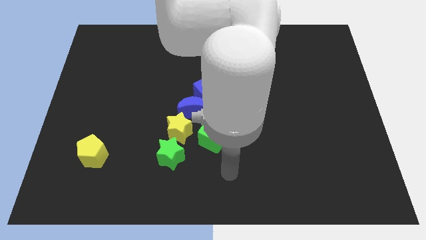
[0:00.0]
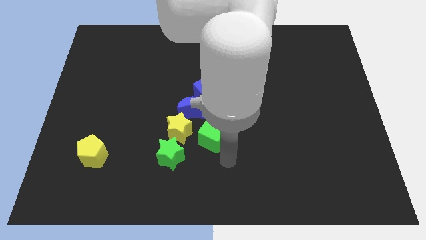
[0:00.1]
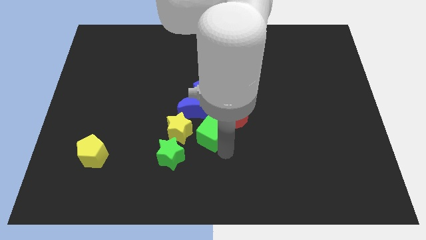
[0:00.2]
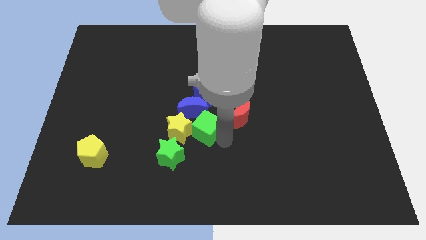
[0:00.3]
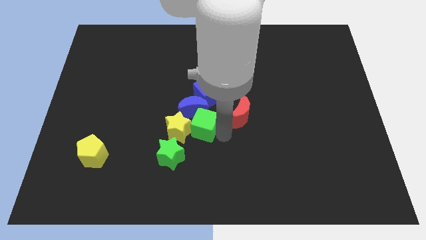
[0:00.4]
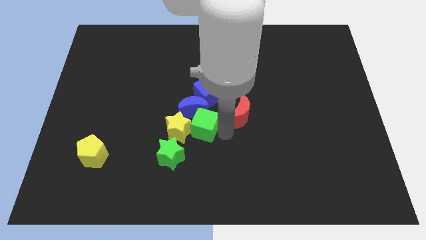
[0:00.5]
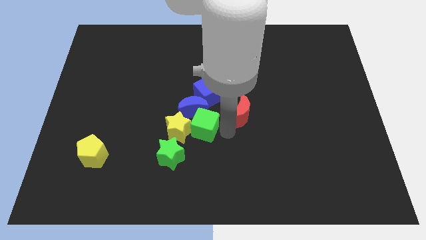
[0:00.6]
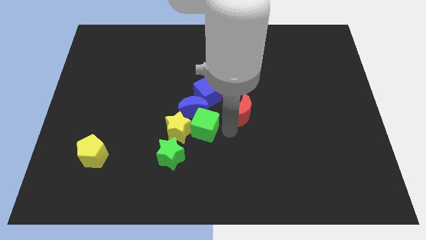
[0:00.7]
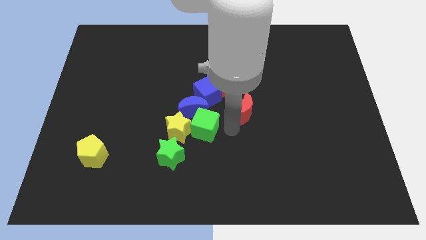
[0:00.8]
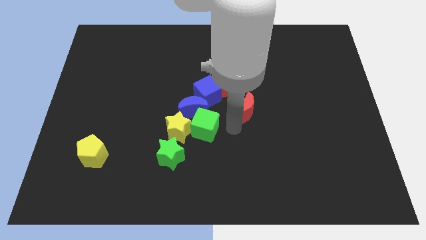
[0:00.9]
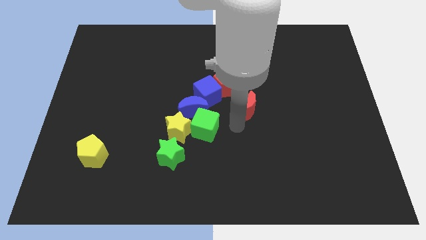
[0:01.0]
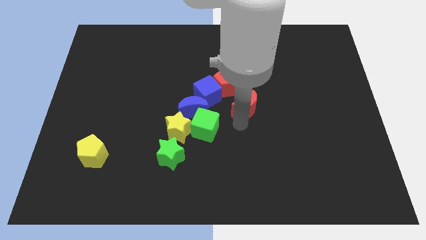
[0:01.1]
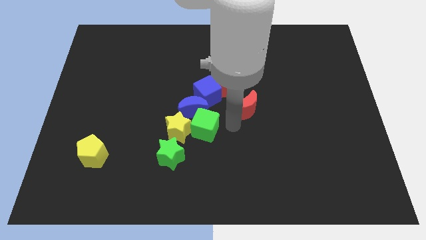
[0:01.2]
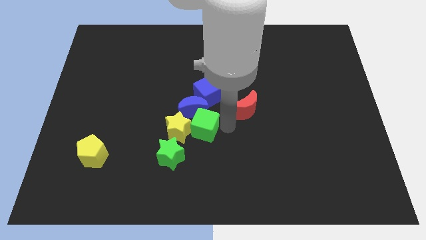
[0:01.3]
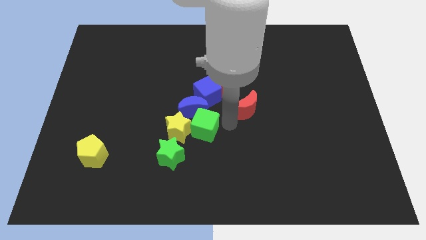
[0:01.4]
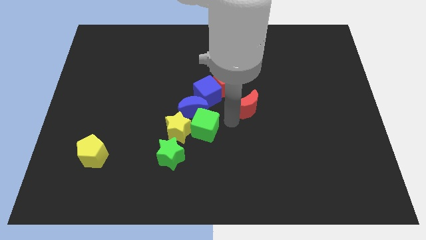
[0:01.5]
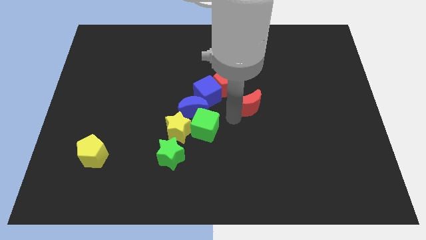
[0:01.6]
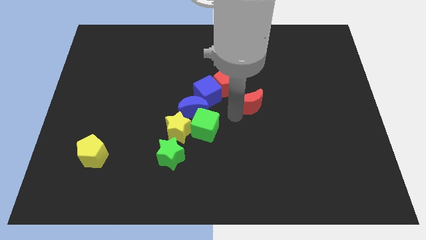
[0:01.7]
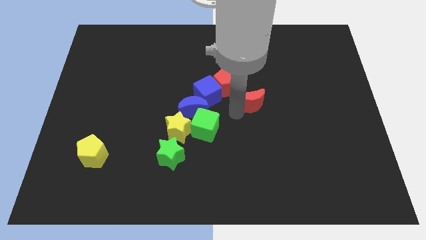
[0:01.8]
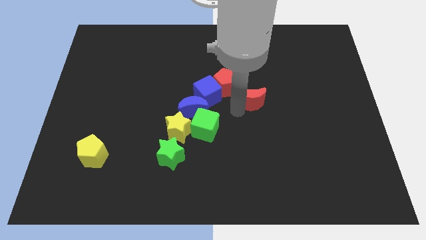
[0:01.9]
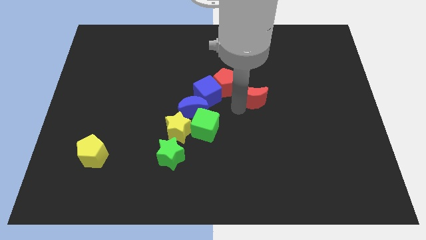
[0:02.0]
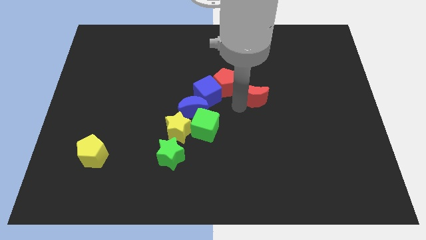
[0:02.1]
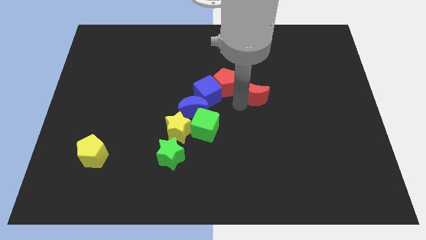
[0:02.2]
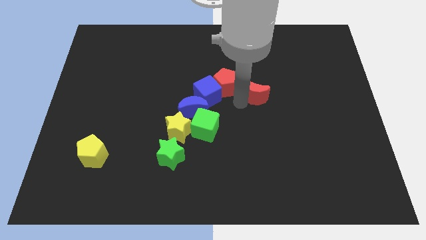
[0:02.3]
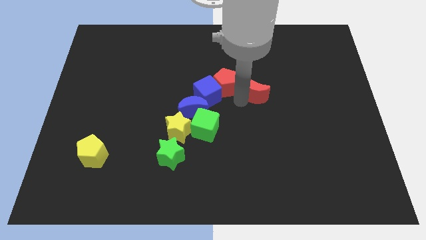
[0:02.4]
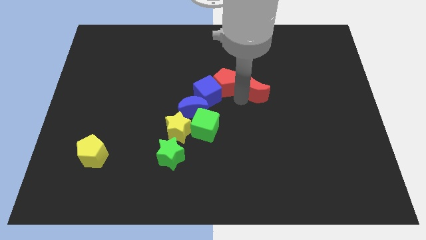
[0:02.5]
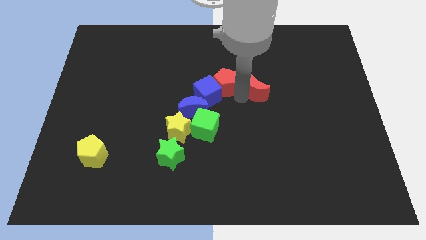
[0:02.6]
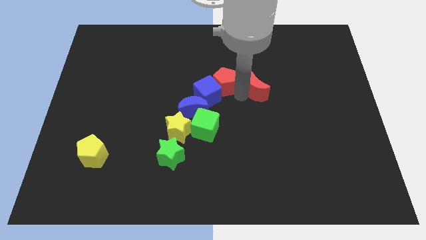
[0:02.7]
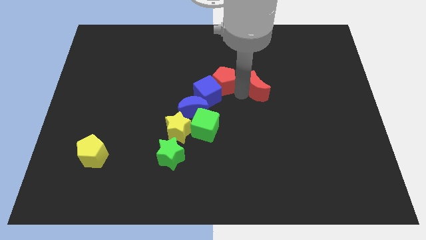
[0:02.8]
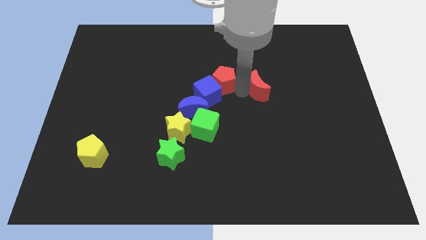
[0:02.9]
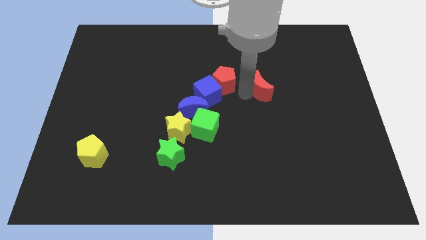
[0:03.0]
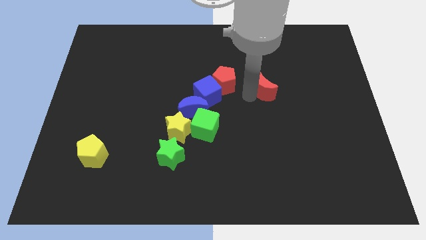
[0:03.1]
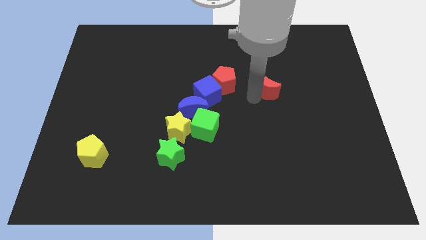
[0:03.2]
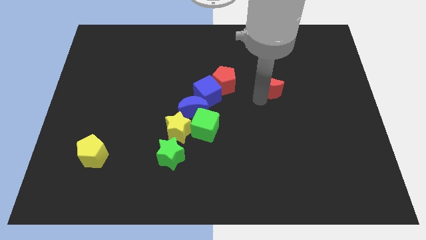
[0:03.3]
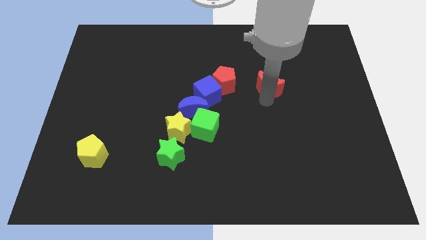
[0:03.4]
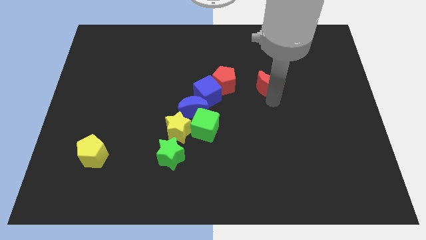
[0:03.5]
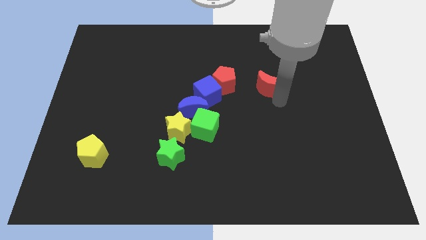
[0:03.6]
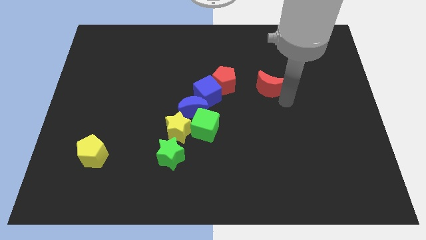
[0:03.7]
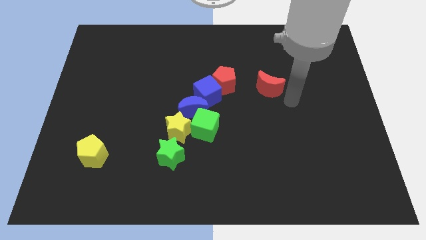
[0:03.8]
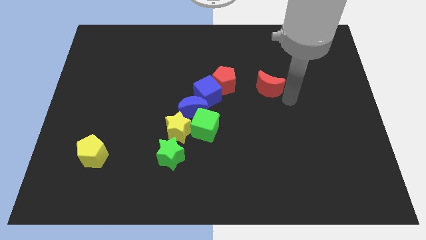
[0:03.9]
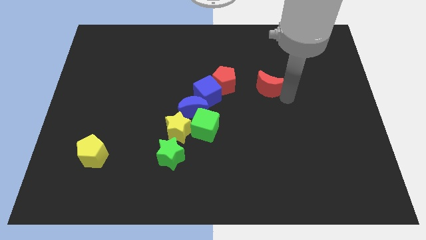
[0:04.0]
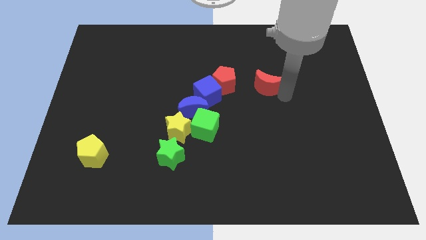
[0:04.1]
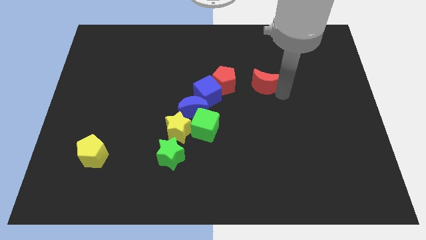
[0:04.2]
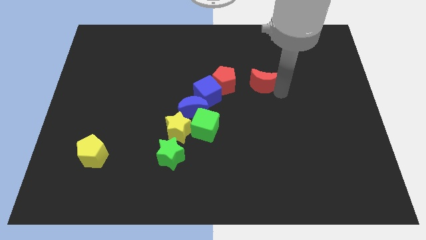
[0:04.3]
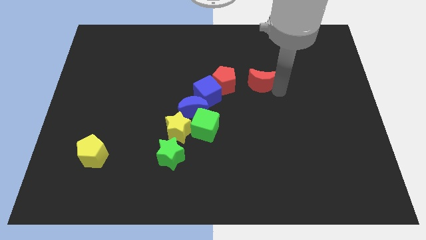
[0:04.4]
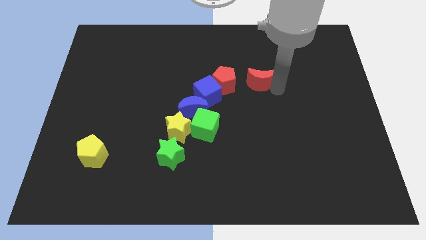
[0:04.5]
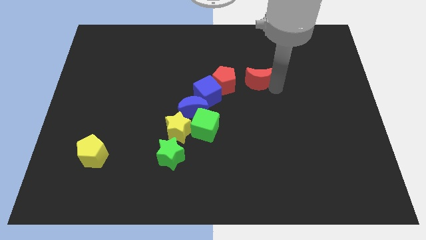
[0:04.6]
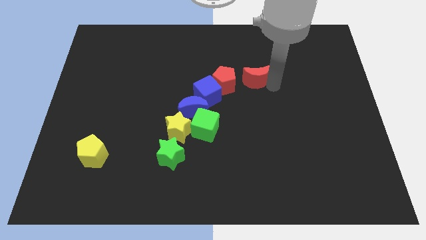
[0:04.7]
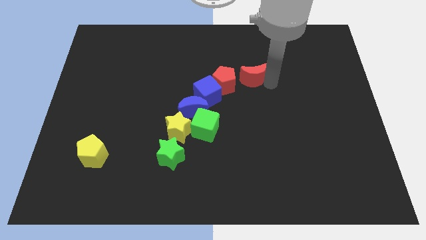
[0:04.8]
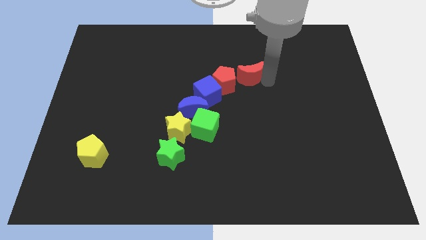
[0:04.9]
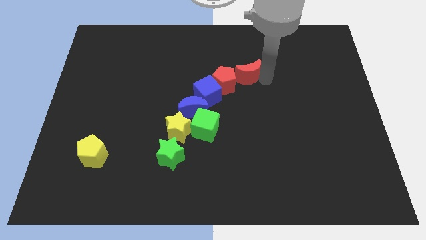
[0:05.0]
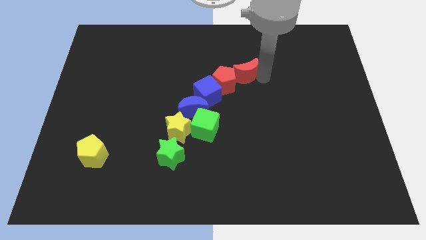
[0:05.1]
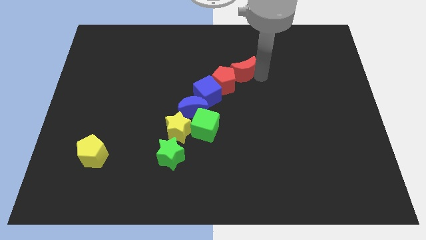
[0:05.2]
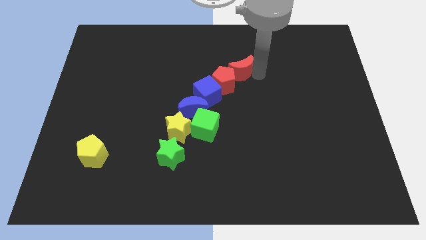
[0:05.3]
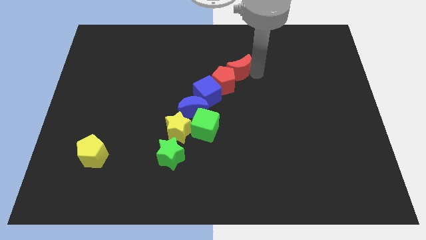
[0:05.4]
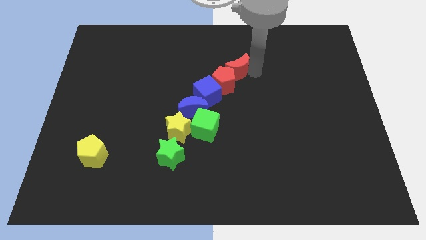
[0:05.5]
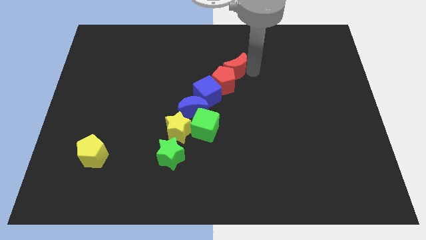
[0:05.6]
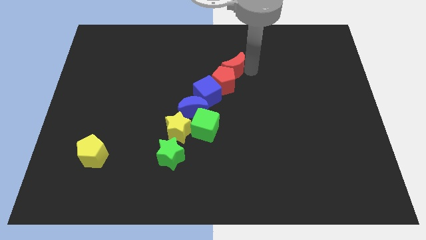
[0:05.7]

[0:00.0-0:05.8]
move the red moon diagonally up and to the left somewhat

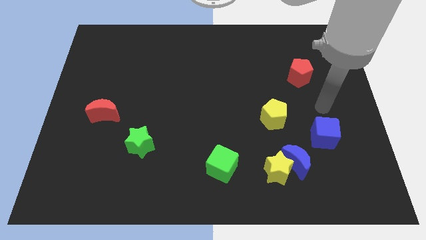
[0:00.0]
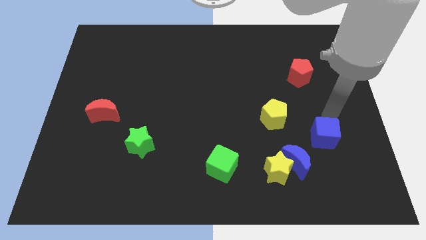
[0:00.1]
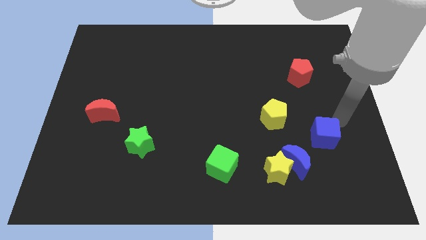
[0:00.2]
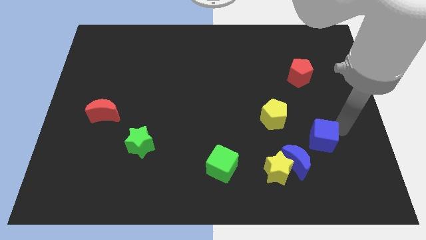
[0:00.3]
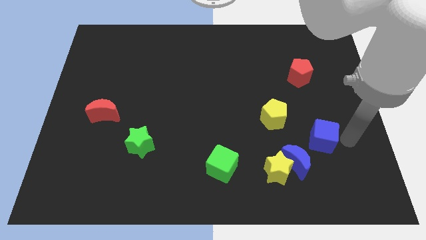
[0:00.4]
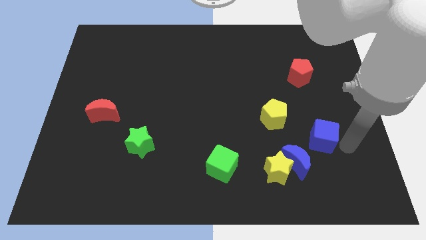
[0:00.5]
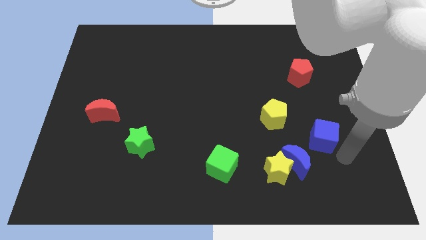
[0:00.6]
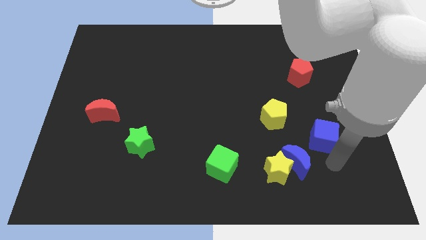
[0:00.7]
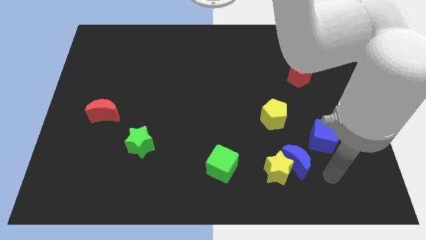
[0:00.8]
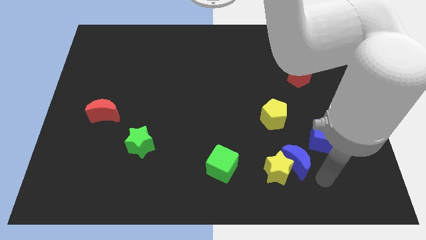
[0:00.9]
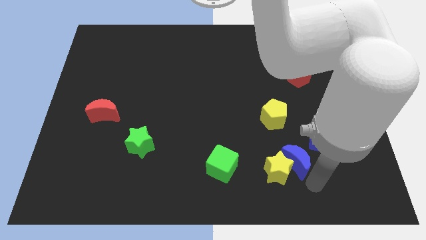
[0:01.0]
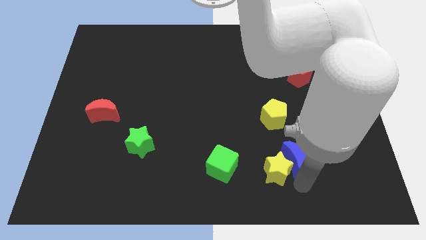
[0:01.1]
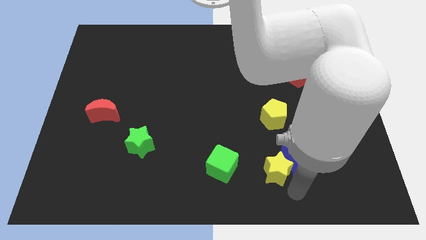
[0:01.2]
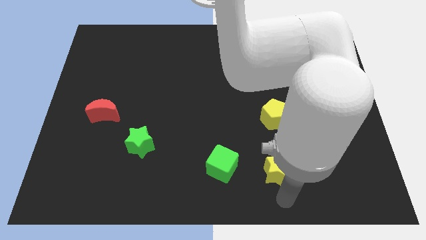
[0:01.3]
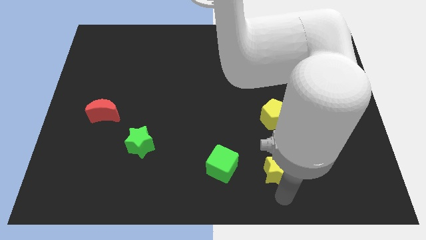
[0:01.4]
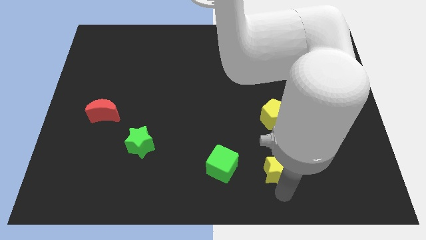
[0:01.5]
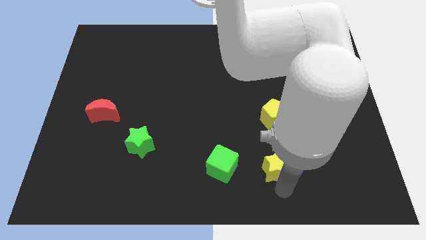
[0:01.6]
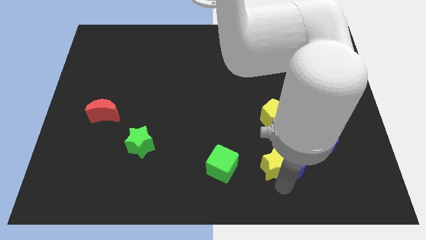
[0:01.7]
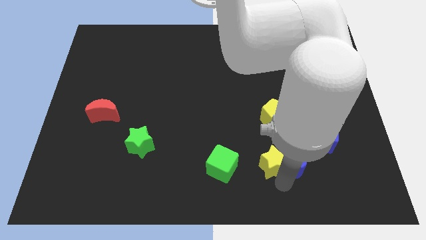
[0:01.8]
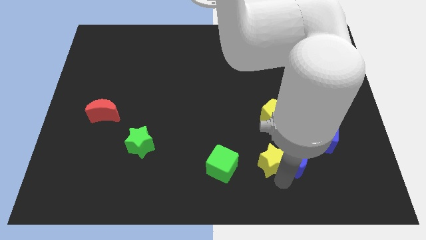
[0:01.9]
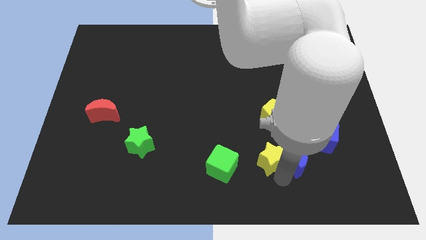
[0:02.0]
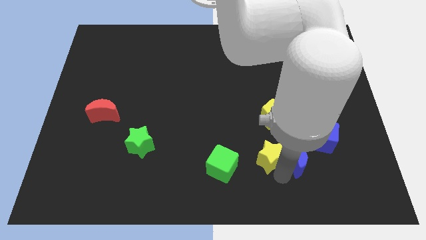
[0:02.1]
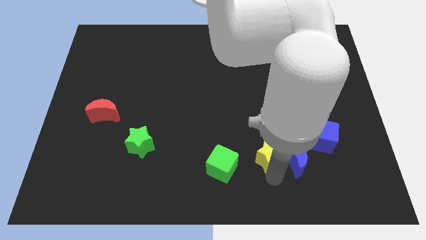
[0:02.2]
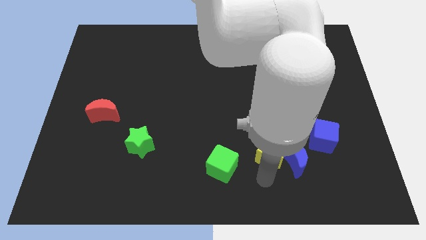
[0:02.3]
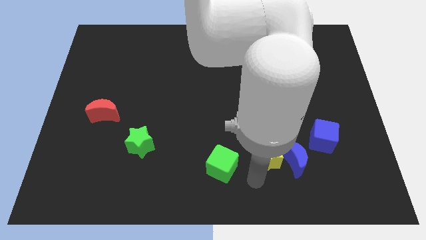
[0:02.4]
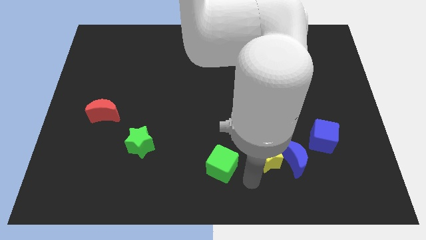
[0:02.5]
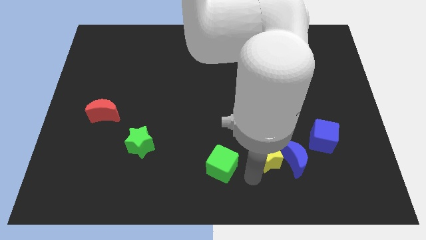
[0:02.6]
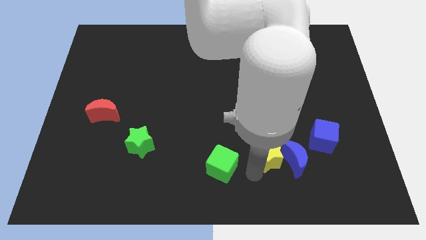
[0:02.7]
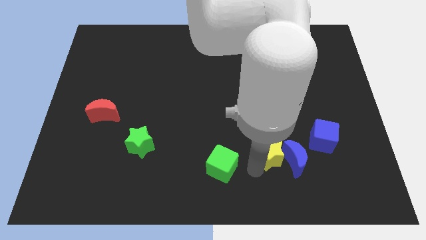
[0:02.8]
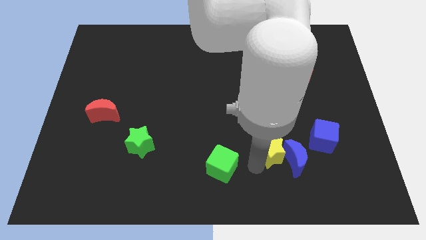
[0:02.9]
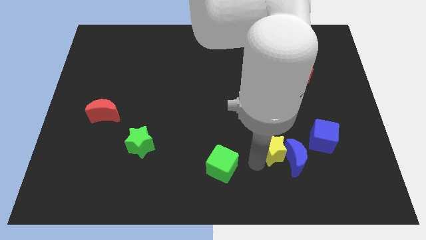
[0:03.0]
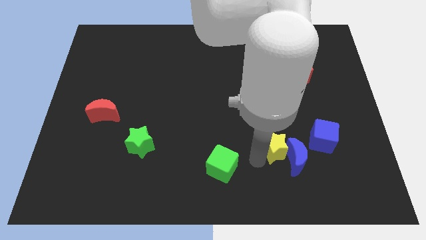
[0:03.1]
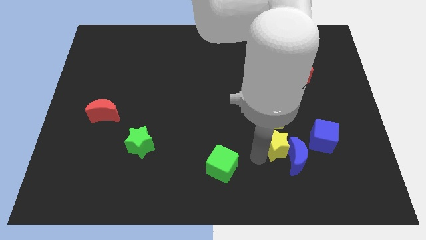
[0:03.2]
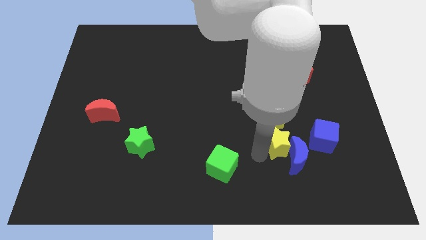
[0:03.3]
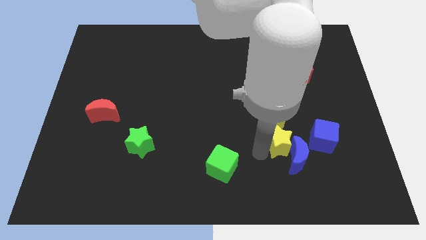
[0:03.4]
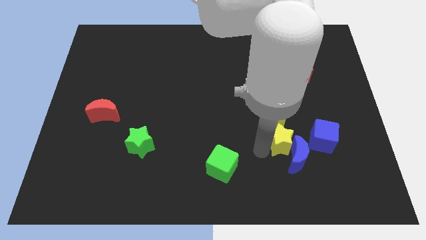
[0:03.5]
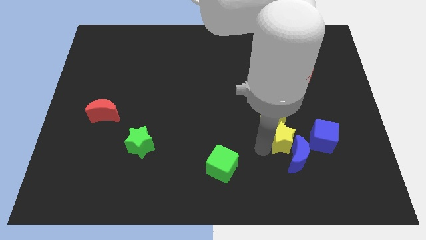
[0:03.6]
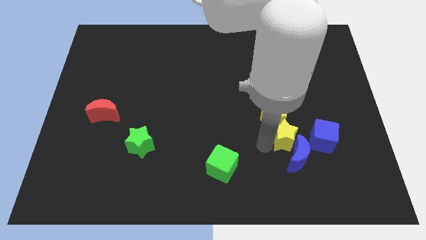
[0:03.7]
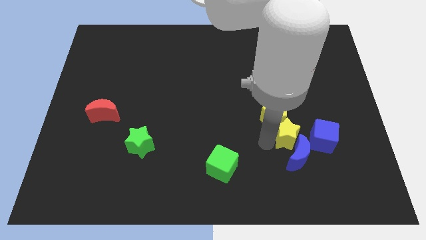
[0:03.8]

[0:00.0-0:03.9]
move the yellow star diagonally upwards and right a bit
